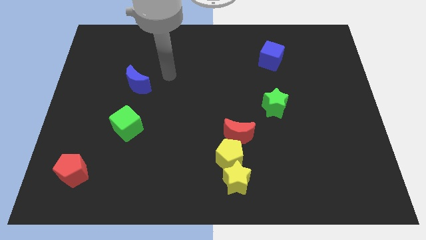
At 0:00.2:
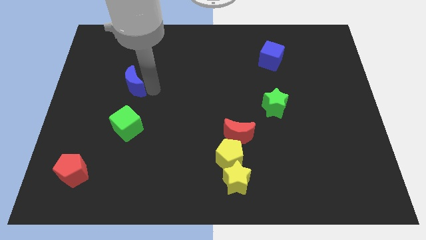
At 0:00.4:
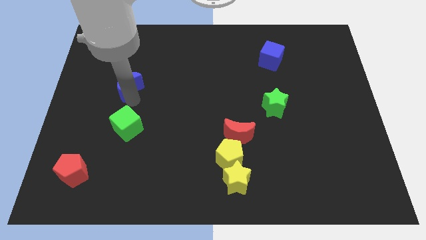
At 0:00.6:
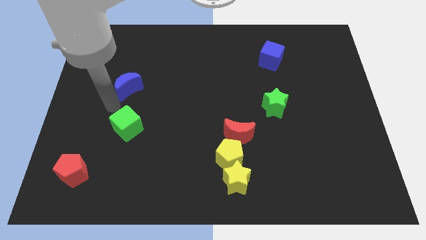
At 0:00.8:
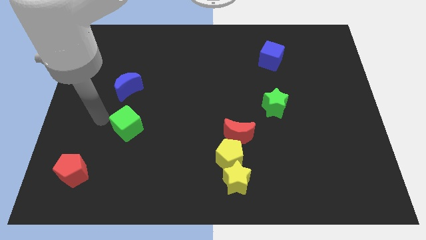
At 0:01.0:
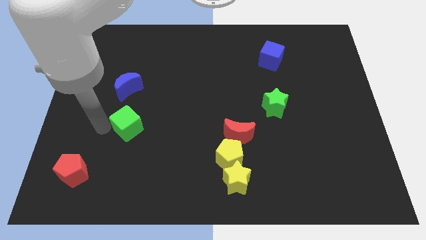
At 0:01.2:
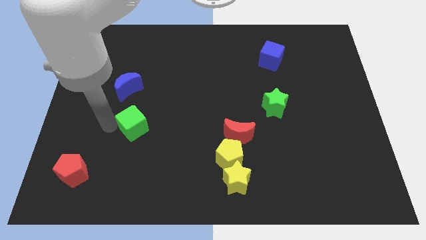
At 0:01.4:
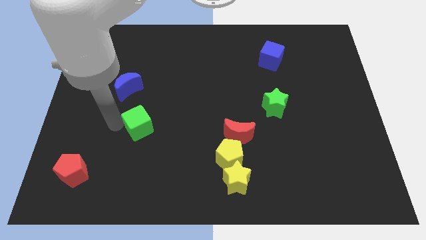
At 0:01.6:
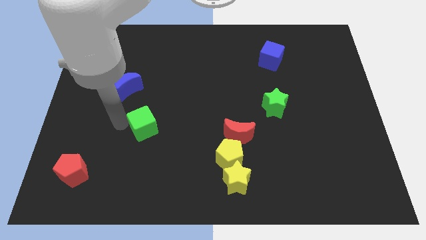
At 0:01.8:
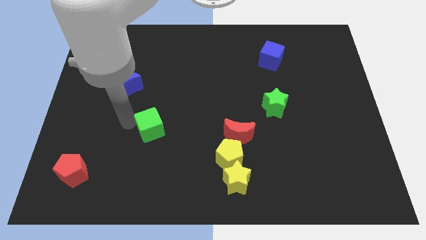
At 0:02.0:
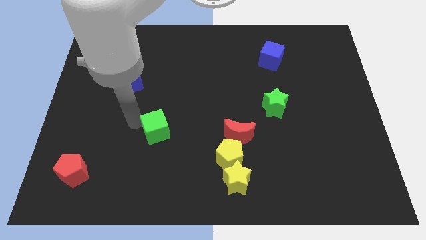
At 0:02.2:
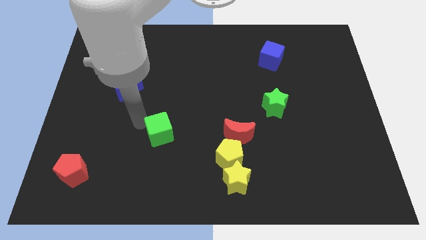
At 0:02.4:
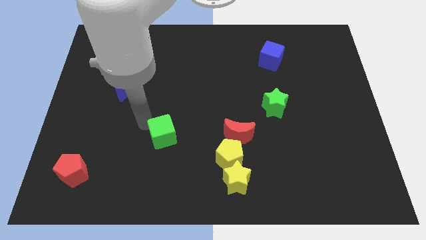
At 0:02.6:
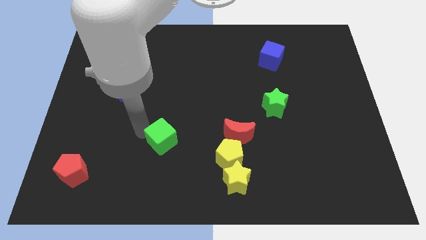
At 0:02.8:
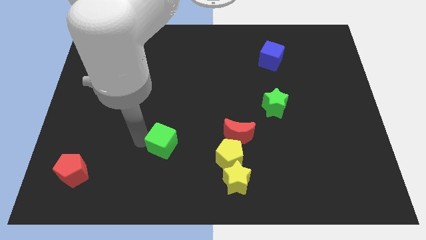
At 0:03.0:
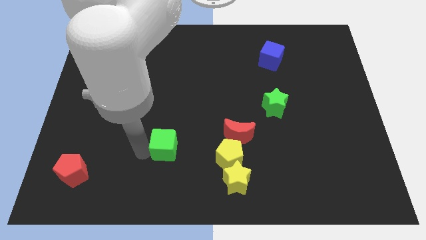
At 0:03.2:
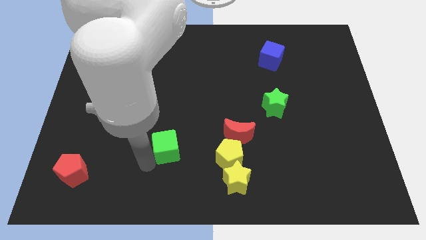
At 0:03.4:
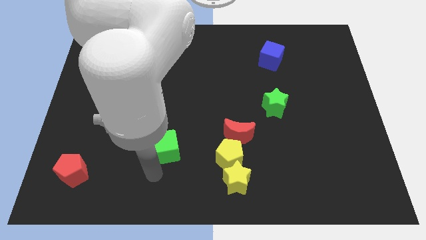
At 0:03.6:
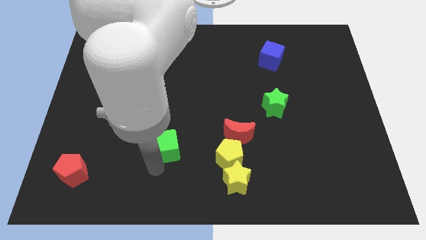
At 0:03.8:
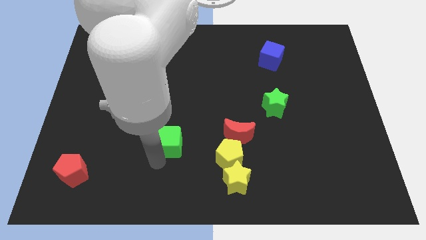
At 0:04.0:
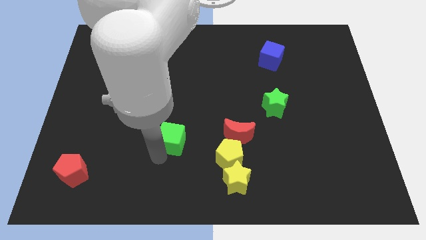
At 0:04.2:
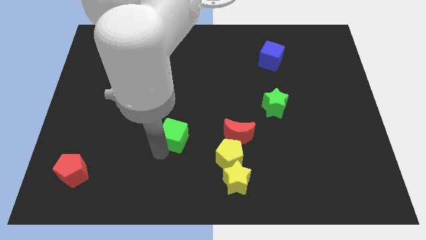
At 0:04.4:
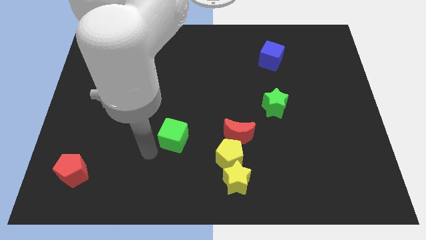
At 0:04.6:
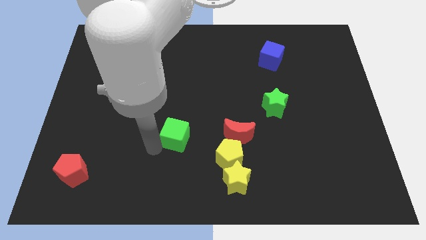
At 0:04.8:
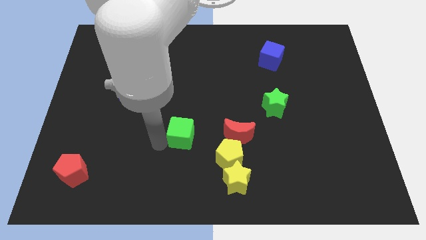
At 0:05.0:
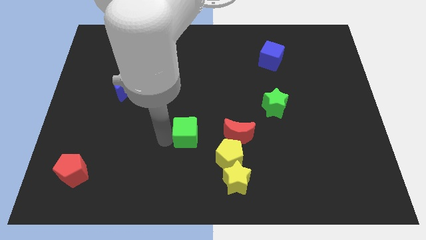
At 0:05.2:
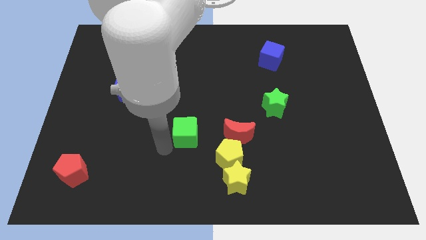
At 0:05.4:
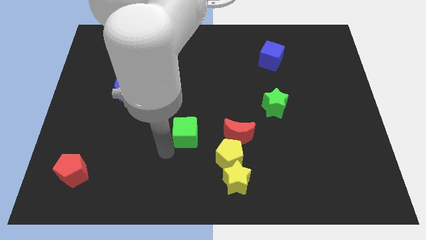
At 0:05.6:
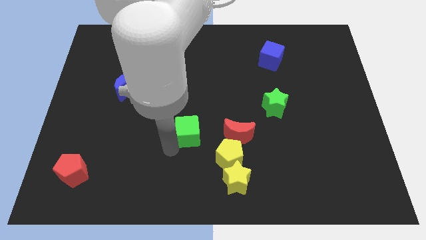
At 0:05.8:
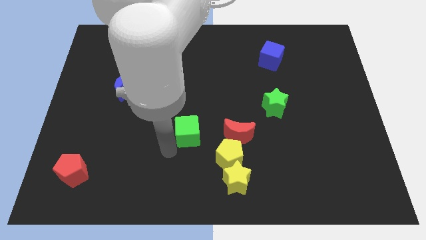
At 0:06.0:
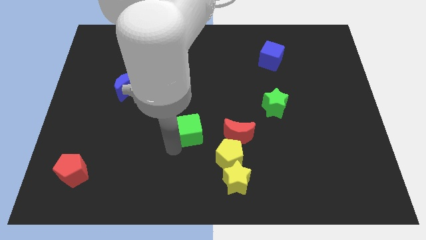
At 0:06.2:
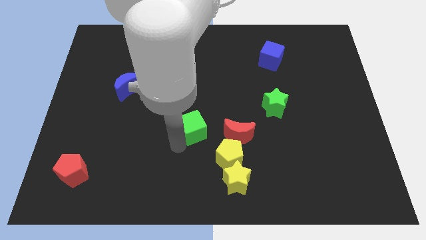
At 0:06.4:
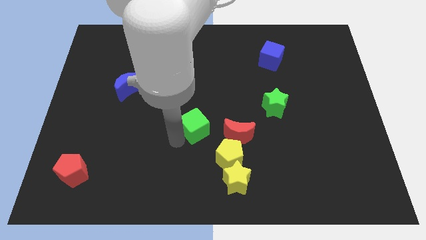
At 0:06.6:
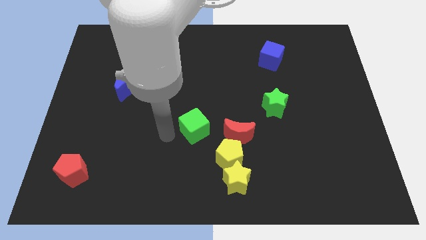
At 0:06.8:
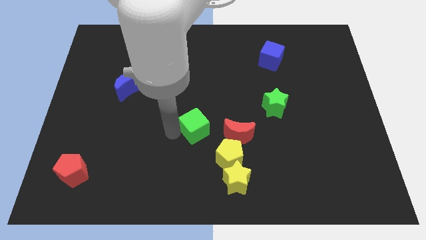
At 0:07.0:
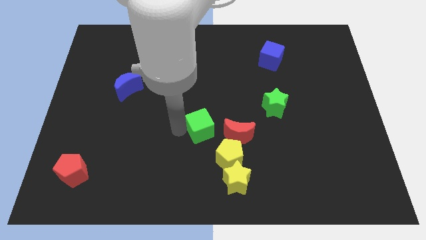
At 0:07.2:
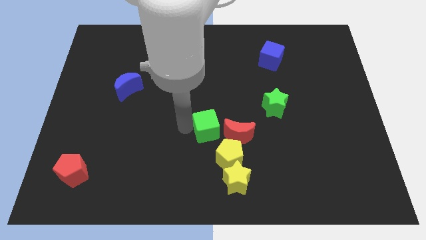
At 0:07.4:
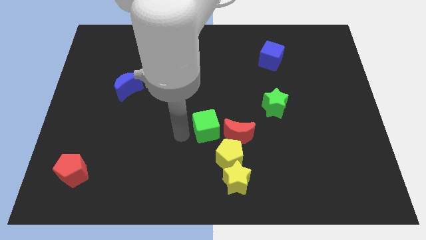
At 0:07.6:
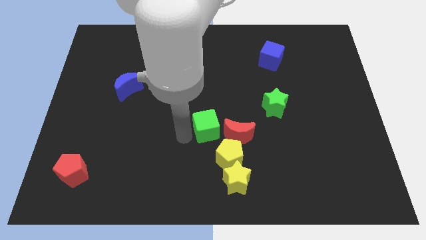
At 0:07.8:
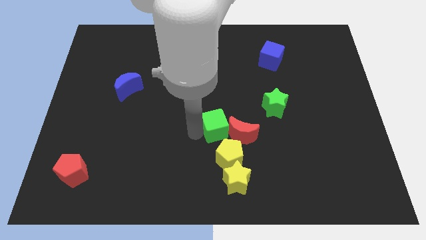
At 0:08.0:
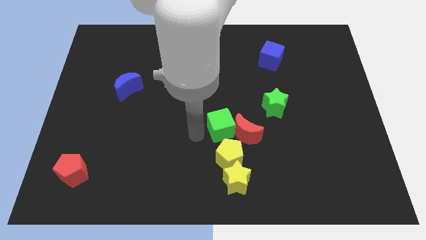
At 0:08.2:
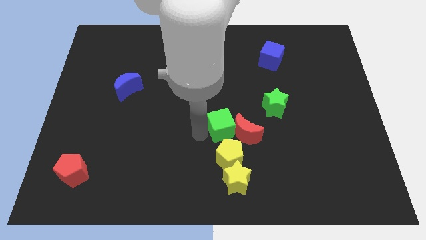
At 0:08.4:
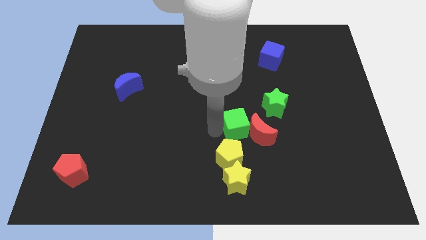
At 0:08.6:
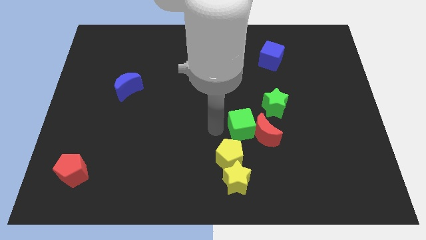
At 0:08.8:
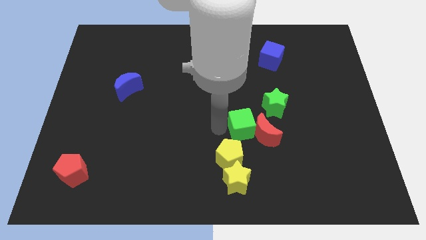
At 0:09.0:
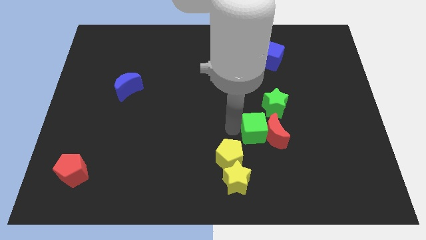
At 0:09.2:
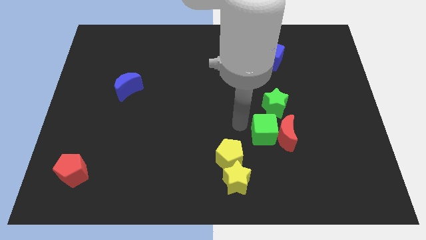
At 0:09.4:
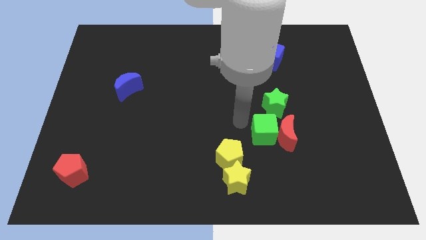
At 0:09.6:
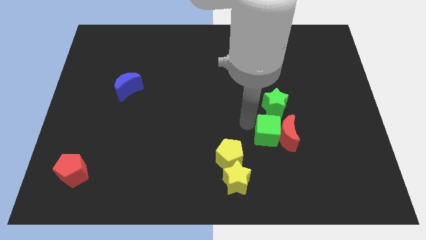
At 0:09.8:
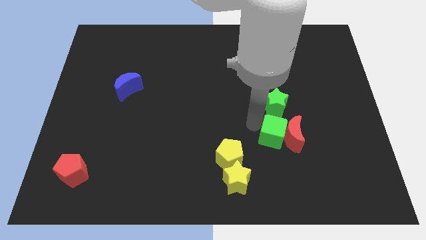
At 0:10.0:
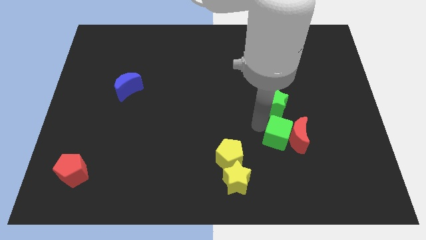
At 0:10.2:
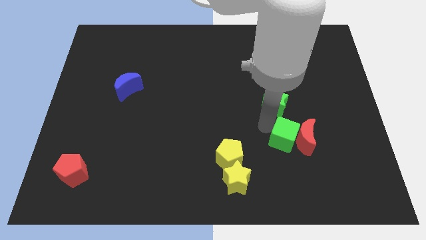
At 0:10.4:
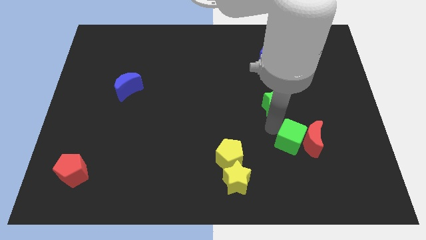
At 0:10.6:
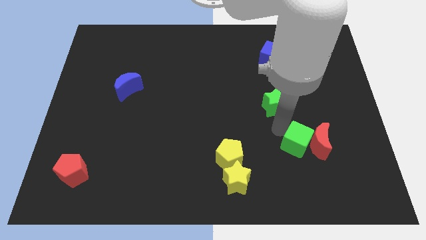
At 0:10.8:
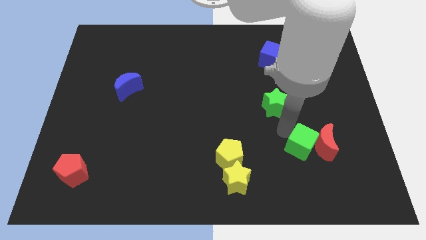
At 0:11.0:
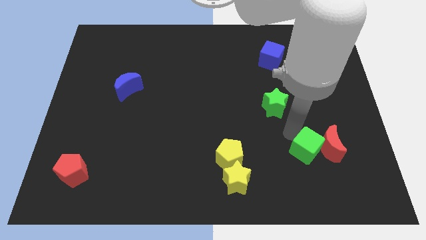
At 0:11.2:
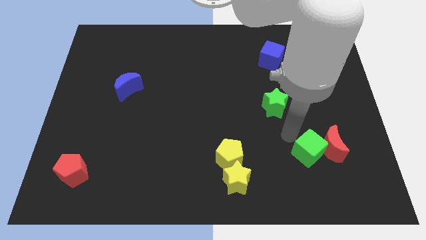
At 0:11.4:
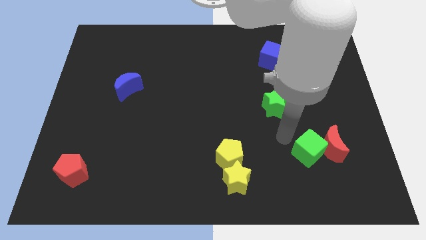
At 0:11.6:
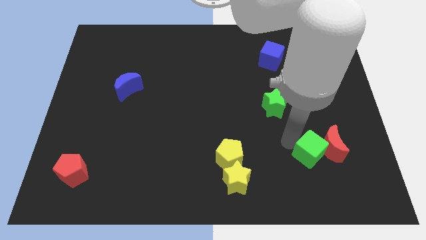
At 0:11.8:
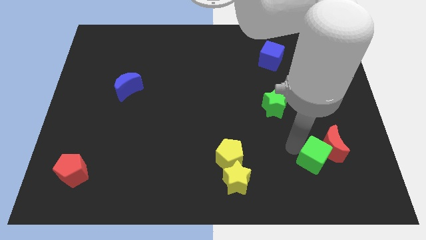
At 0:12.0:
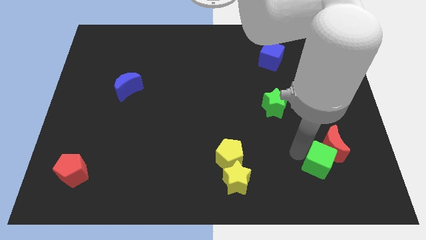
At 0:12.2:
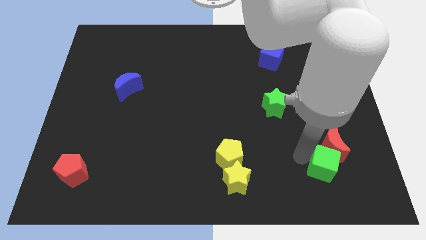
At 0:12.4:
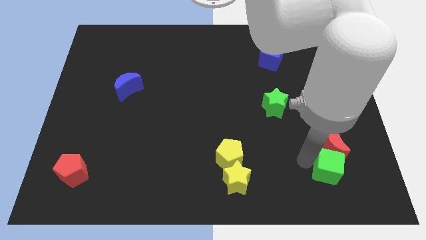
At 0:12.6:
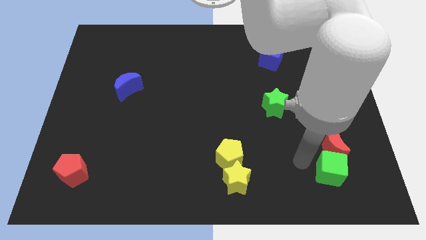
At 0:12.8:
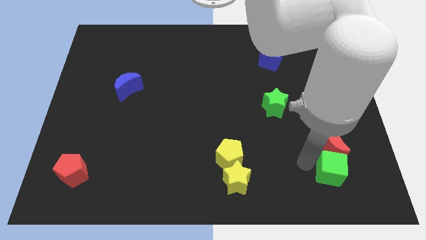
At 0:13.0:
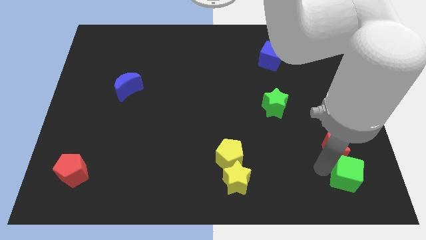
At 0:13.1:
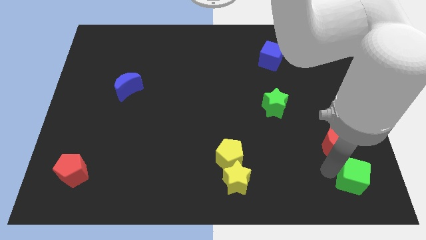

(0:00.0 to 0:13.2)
push the green cube to the bottom right corner
